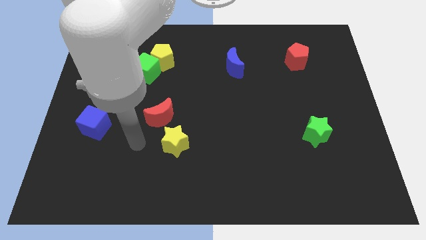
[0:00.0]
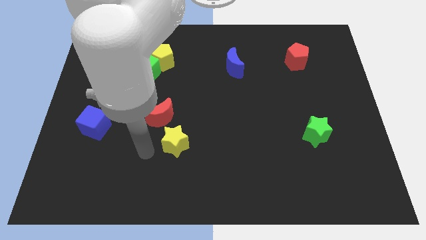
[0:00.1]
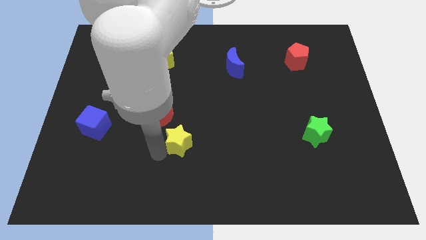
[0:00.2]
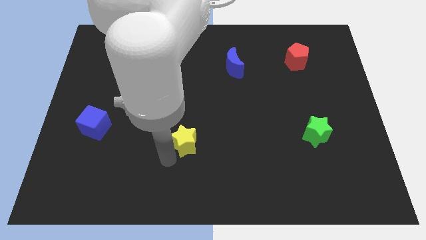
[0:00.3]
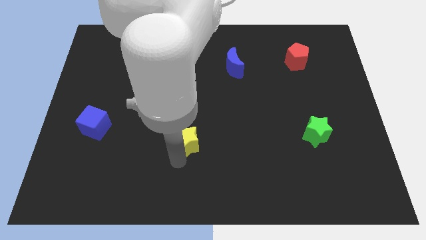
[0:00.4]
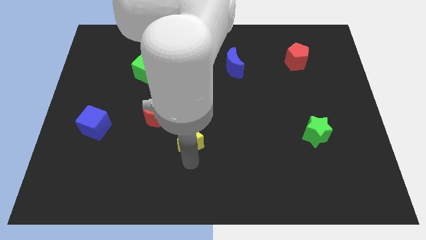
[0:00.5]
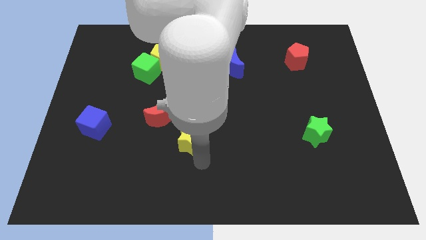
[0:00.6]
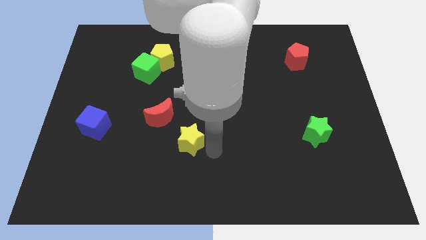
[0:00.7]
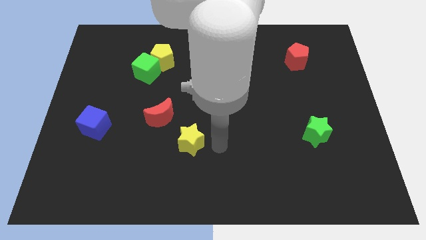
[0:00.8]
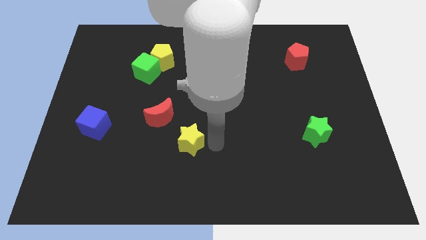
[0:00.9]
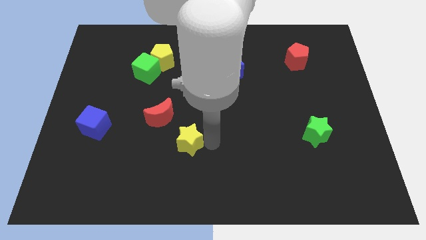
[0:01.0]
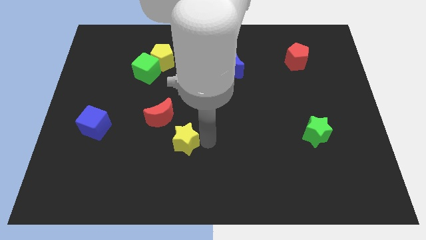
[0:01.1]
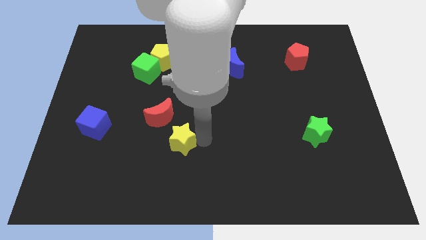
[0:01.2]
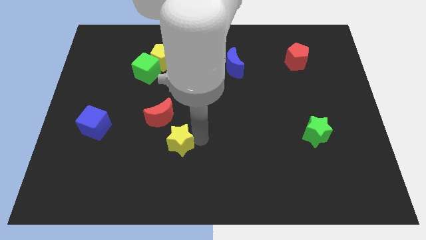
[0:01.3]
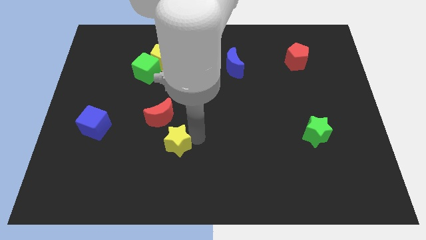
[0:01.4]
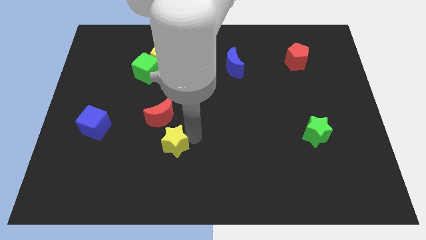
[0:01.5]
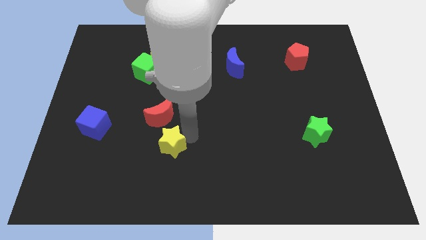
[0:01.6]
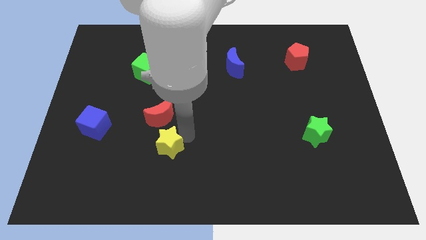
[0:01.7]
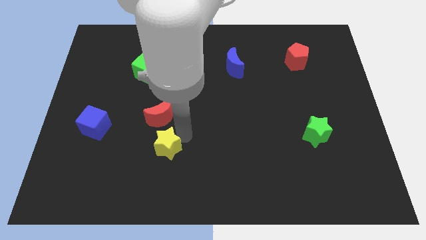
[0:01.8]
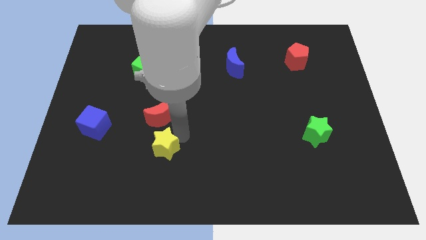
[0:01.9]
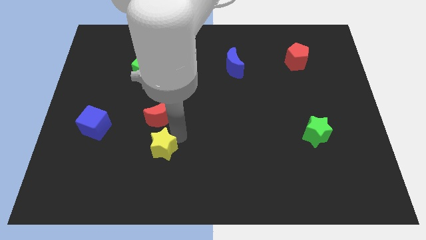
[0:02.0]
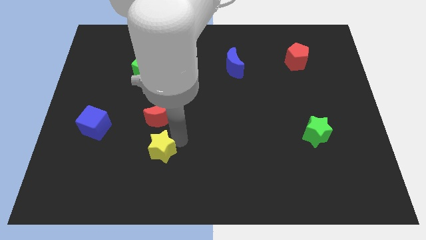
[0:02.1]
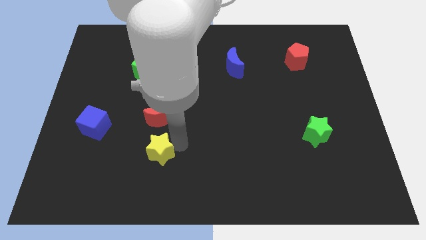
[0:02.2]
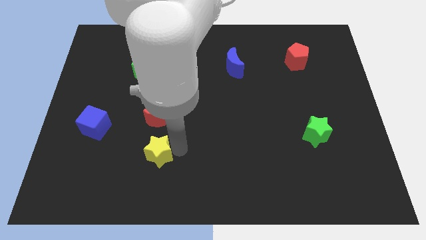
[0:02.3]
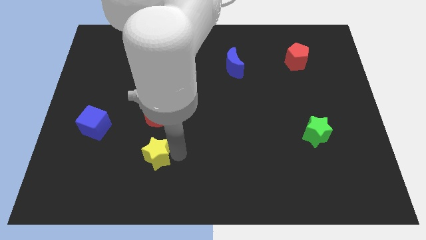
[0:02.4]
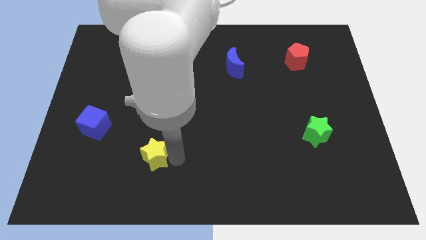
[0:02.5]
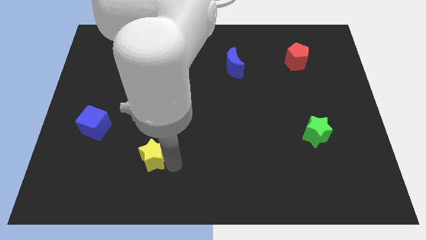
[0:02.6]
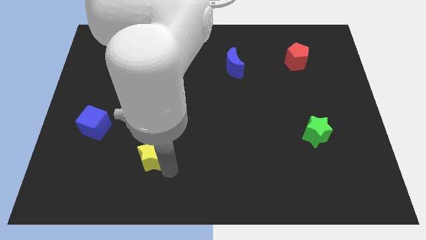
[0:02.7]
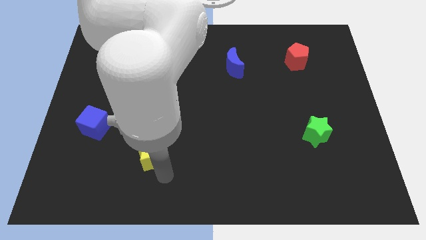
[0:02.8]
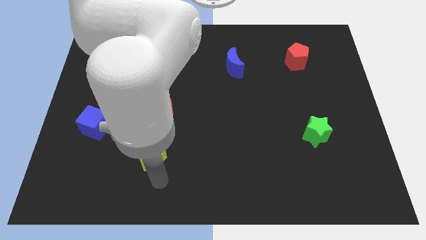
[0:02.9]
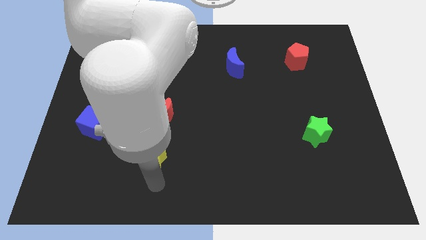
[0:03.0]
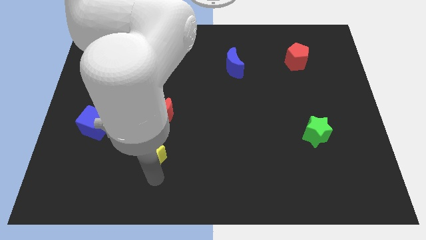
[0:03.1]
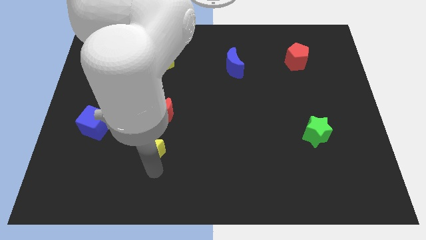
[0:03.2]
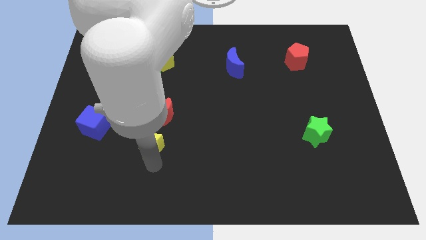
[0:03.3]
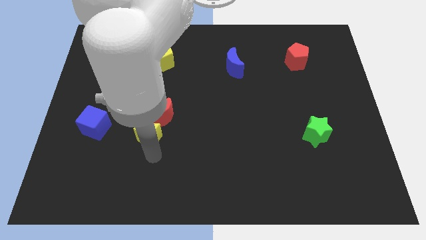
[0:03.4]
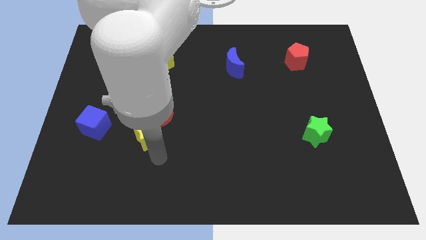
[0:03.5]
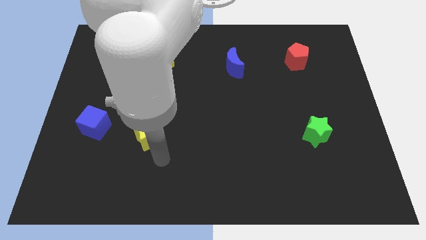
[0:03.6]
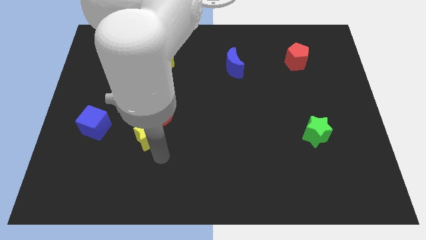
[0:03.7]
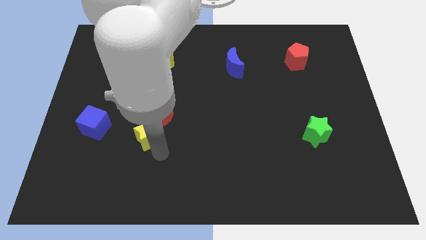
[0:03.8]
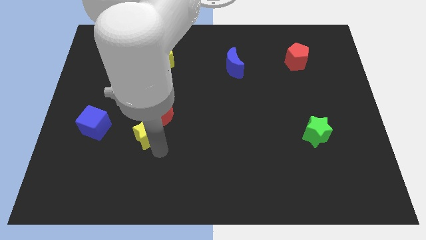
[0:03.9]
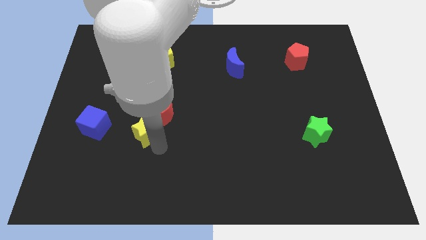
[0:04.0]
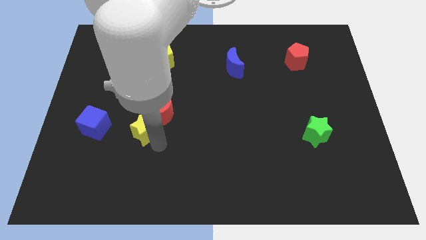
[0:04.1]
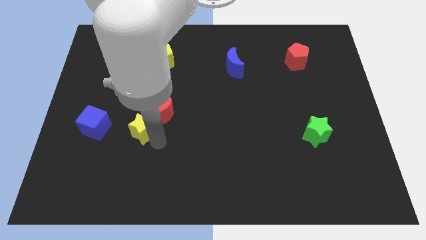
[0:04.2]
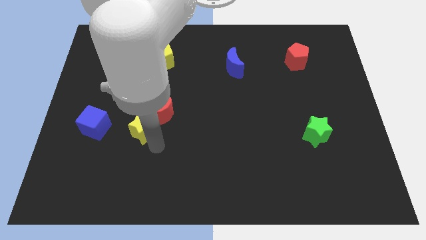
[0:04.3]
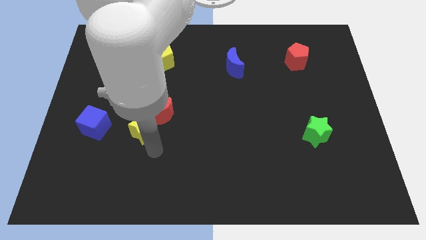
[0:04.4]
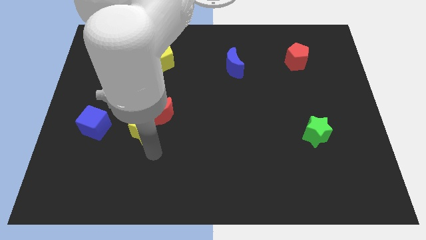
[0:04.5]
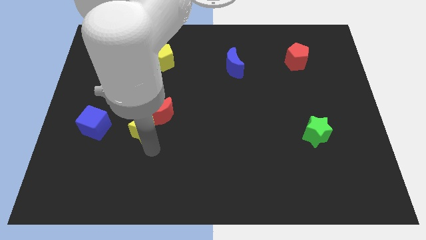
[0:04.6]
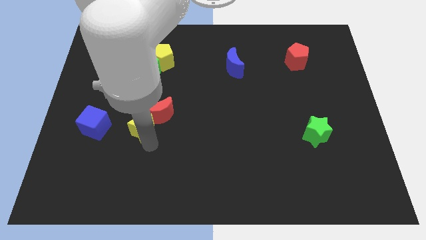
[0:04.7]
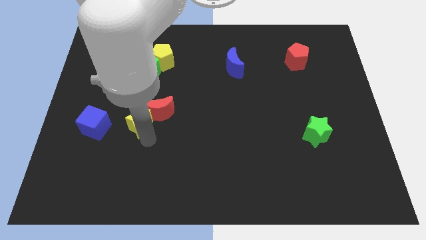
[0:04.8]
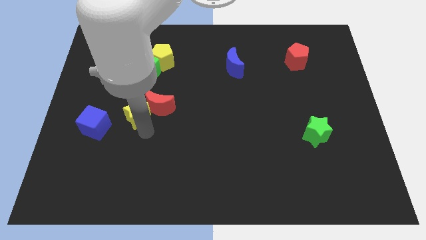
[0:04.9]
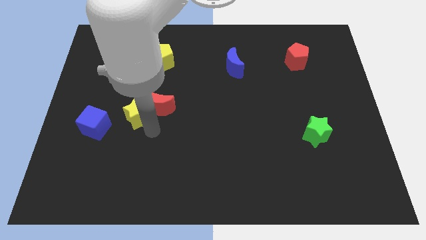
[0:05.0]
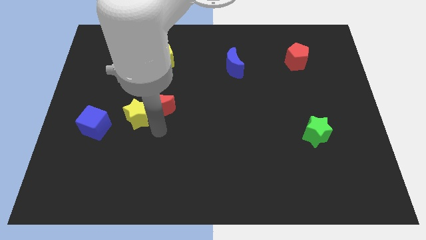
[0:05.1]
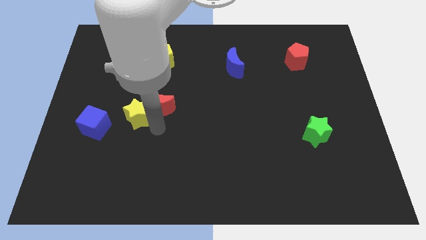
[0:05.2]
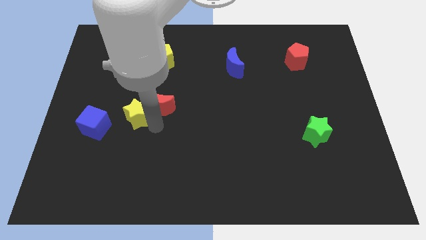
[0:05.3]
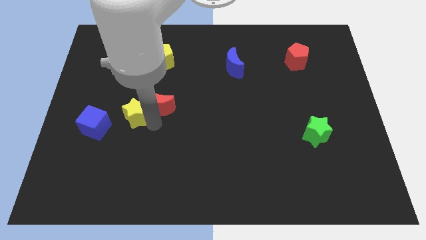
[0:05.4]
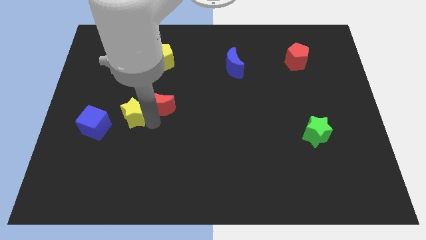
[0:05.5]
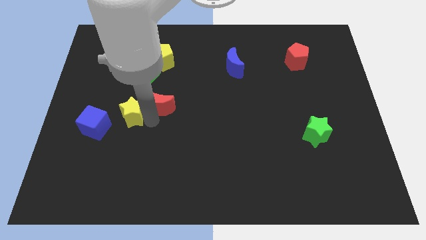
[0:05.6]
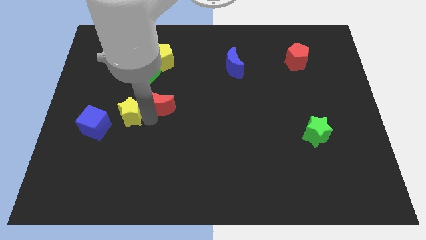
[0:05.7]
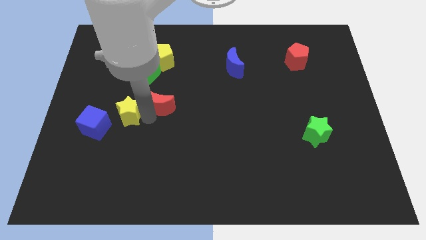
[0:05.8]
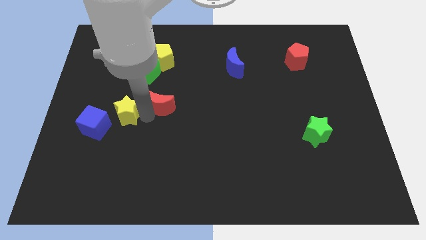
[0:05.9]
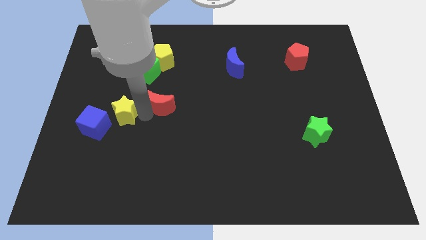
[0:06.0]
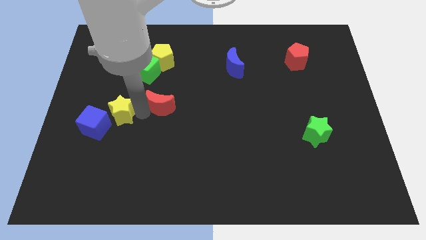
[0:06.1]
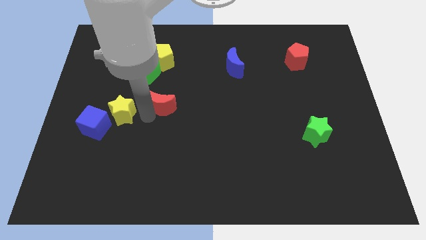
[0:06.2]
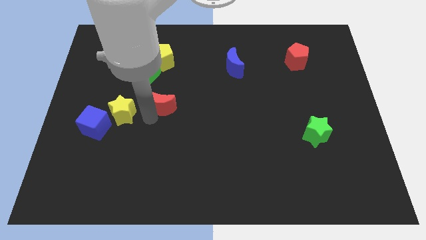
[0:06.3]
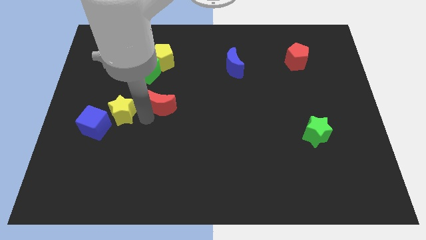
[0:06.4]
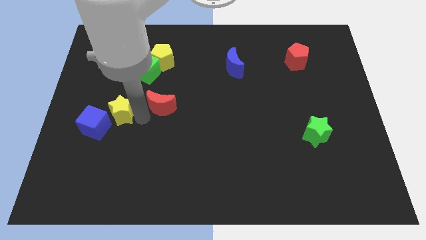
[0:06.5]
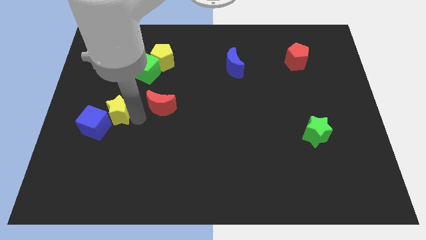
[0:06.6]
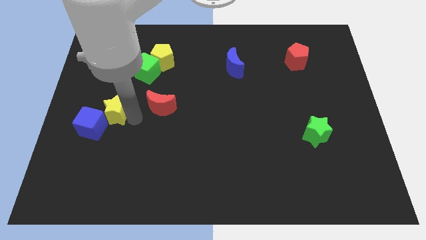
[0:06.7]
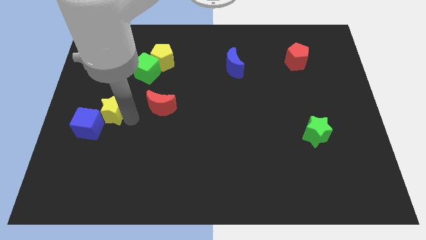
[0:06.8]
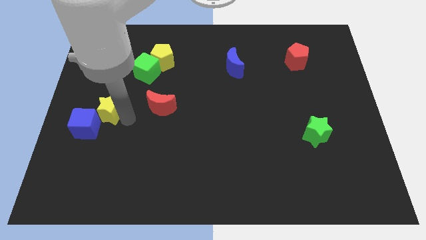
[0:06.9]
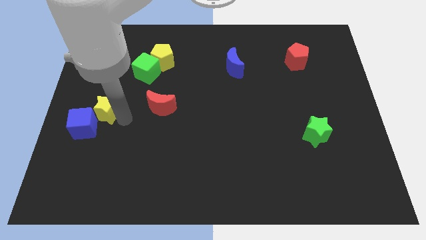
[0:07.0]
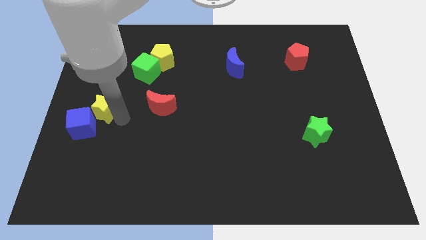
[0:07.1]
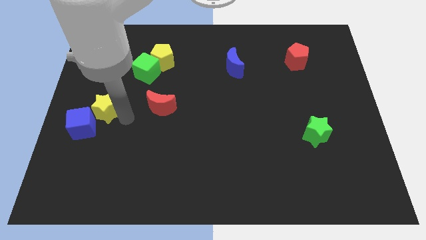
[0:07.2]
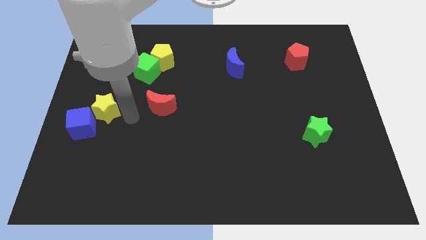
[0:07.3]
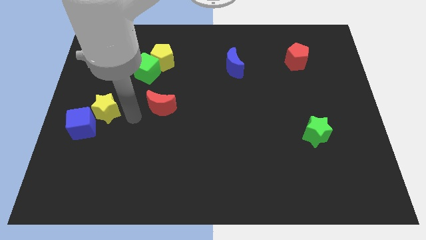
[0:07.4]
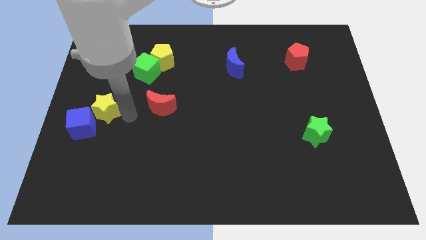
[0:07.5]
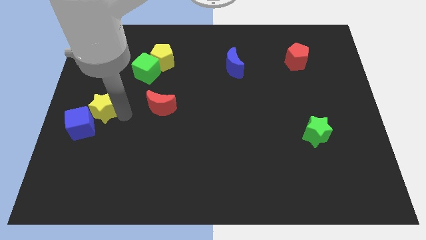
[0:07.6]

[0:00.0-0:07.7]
push the yellow star to the center left
